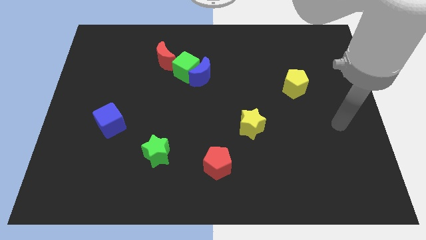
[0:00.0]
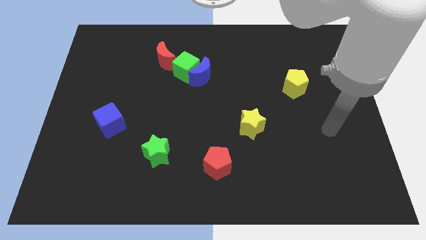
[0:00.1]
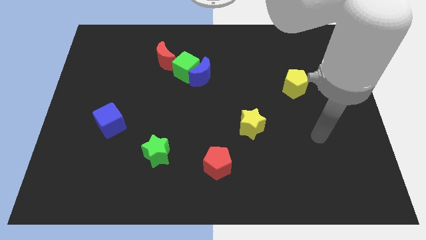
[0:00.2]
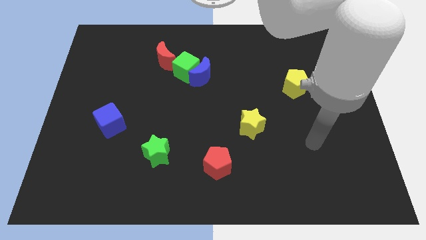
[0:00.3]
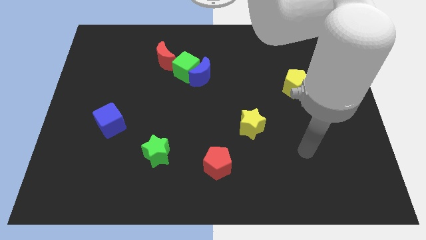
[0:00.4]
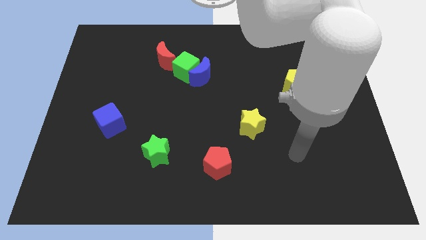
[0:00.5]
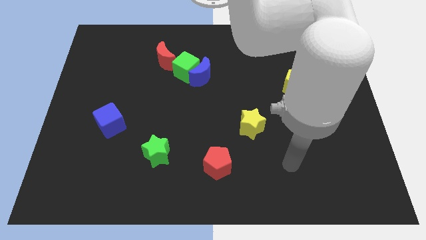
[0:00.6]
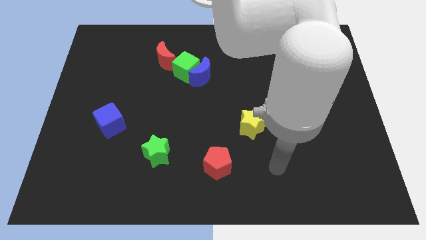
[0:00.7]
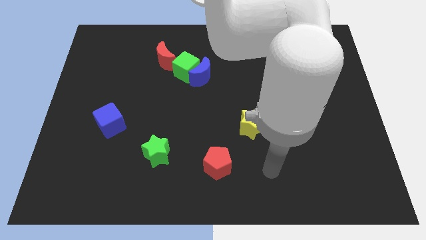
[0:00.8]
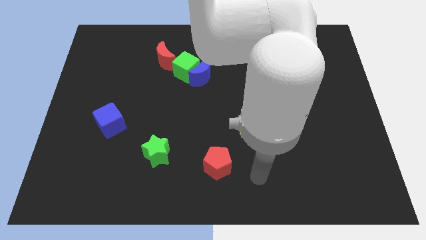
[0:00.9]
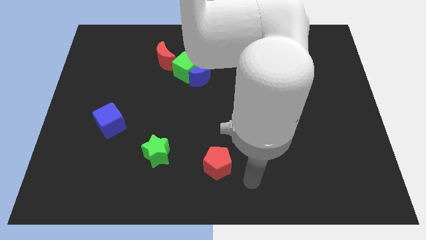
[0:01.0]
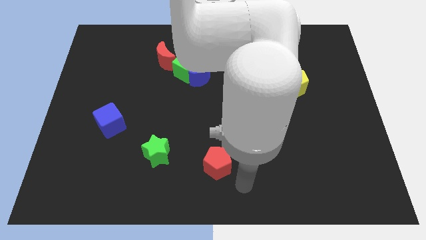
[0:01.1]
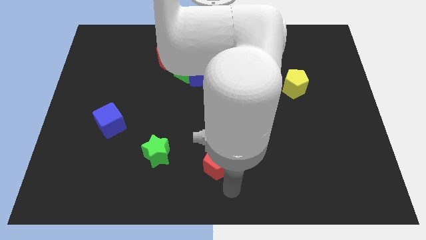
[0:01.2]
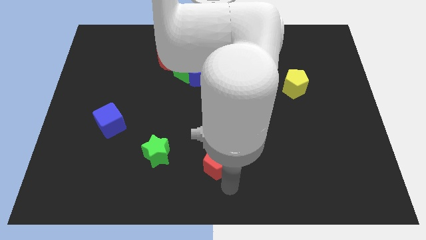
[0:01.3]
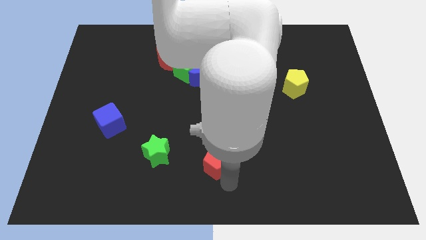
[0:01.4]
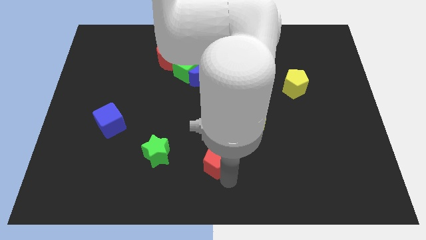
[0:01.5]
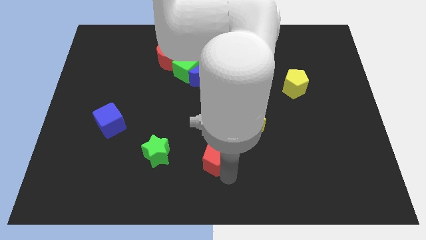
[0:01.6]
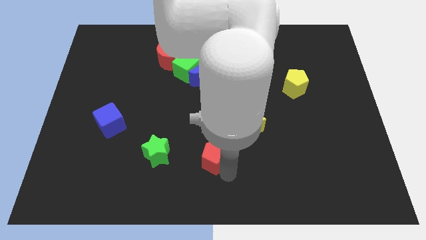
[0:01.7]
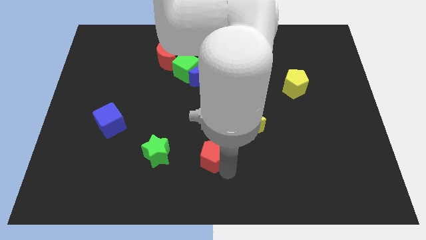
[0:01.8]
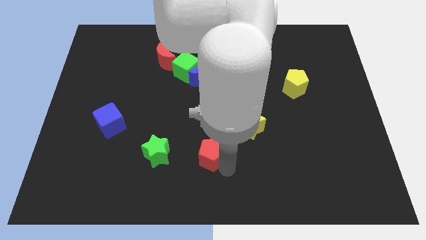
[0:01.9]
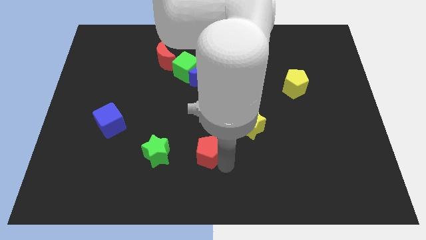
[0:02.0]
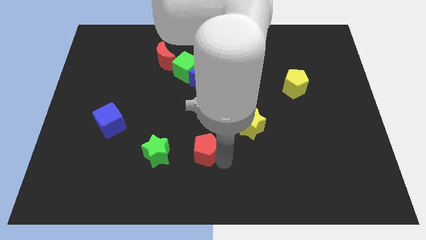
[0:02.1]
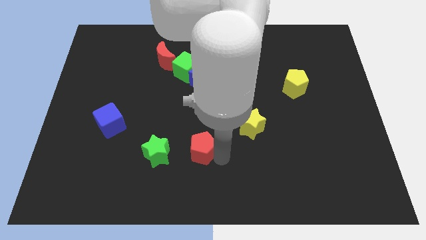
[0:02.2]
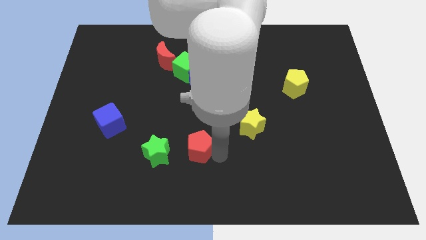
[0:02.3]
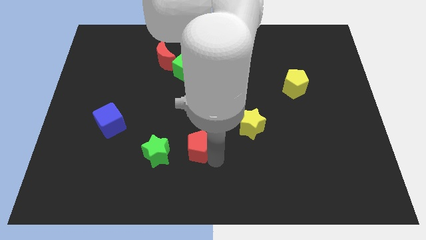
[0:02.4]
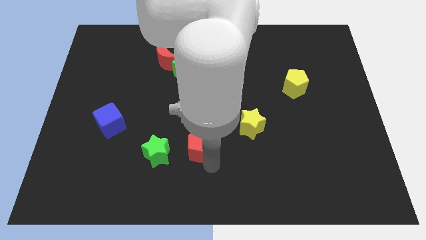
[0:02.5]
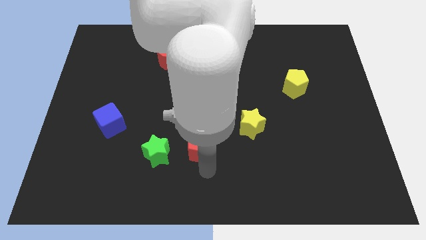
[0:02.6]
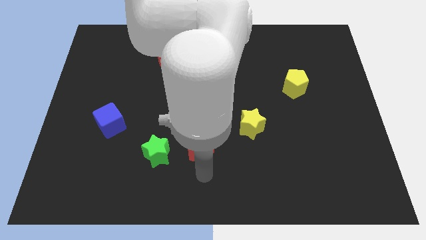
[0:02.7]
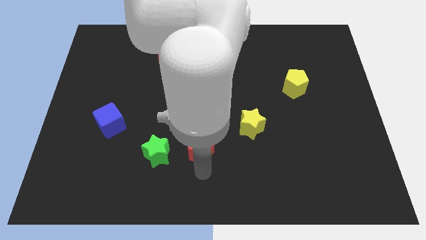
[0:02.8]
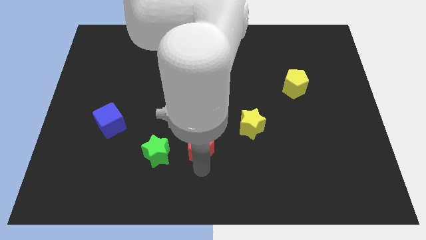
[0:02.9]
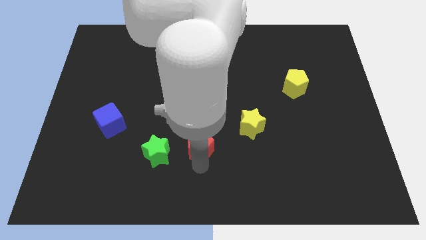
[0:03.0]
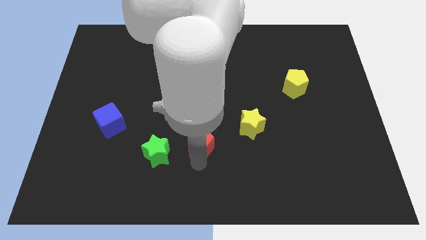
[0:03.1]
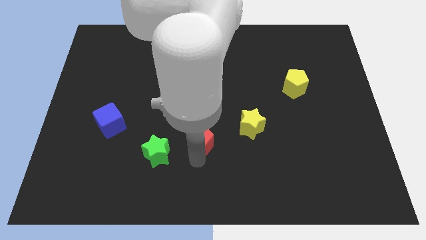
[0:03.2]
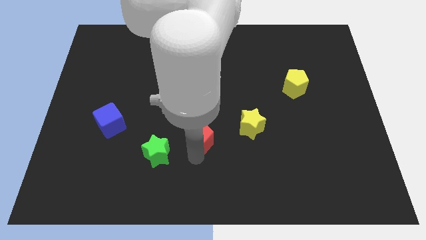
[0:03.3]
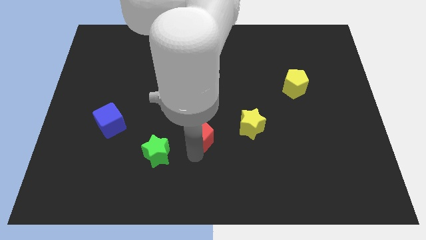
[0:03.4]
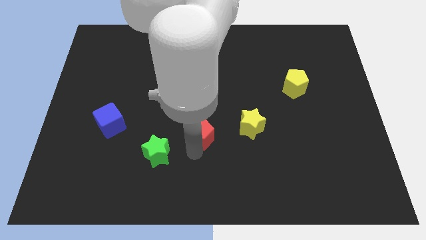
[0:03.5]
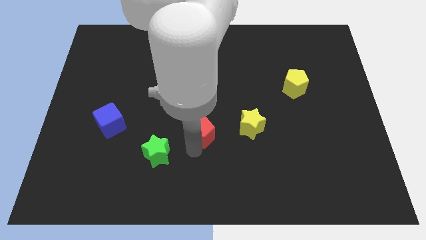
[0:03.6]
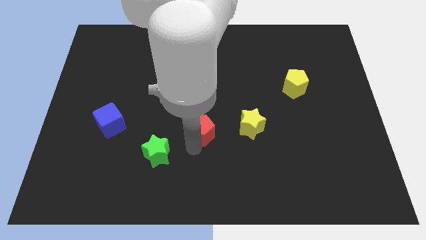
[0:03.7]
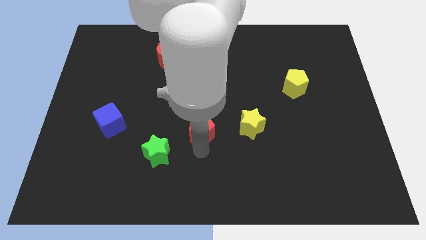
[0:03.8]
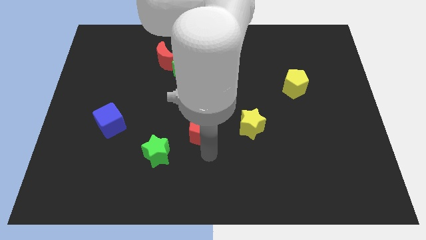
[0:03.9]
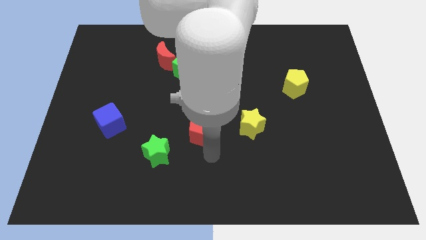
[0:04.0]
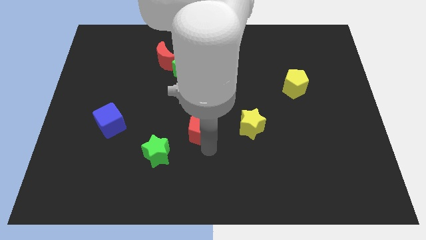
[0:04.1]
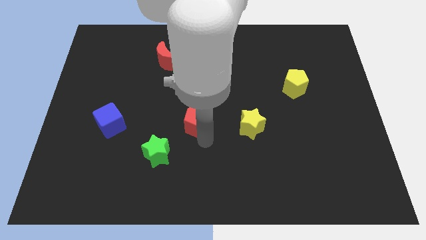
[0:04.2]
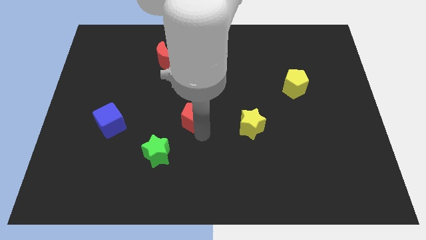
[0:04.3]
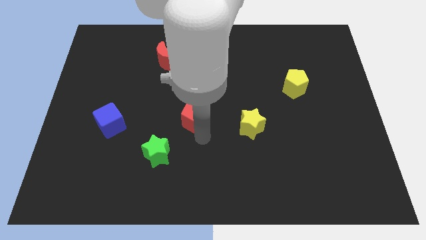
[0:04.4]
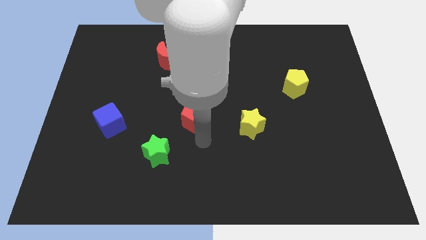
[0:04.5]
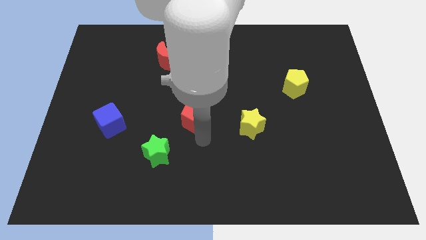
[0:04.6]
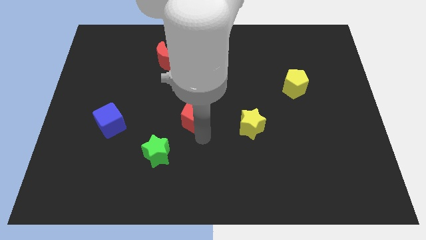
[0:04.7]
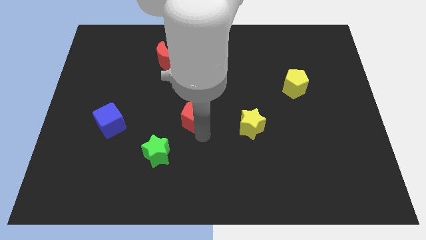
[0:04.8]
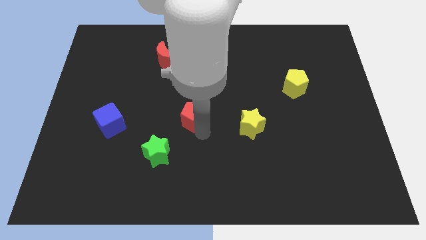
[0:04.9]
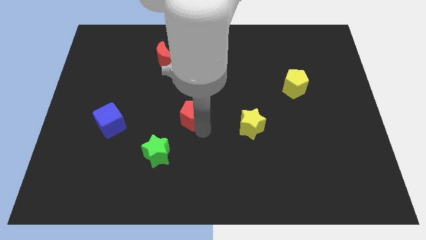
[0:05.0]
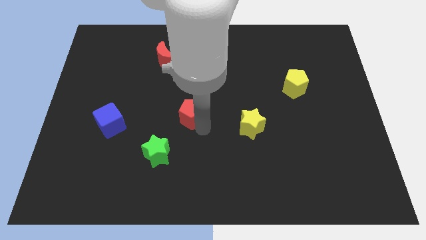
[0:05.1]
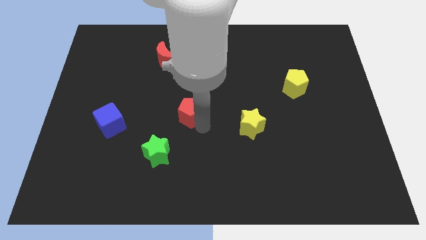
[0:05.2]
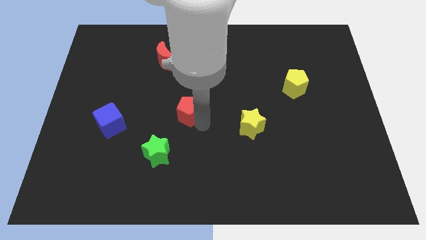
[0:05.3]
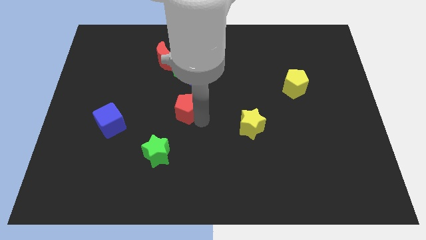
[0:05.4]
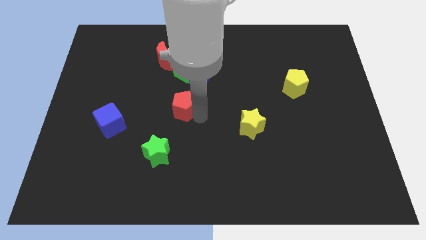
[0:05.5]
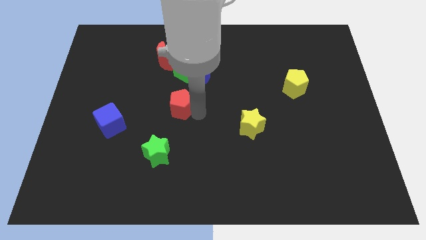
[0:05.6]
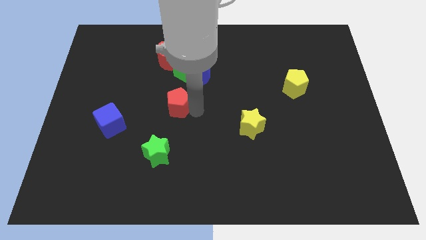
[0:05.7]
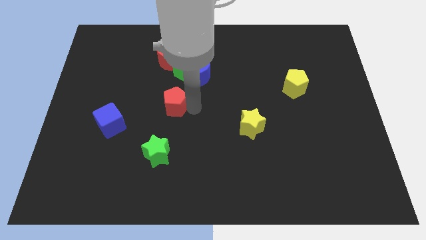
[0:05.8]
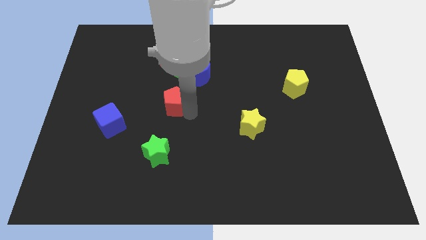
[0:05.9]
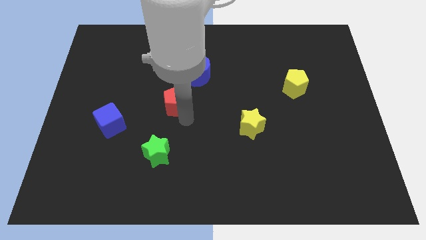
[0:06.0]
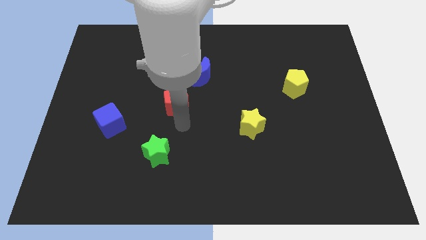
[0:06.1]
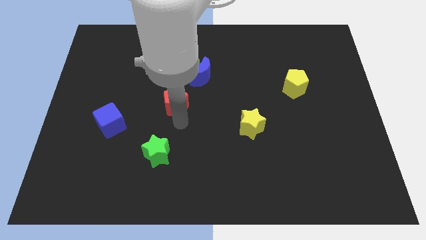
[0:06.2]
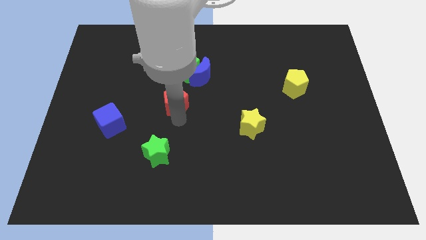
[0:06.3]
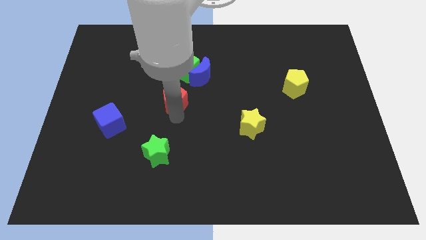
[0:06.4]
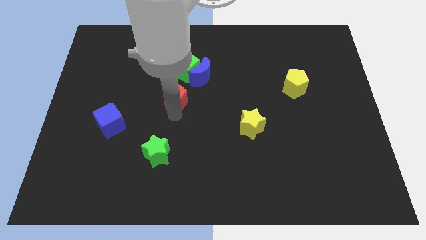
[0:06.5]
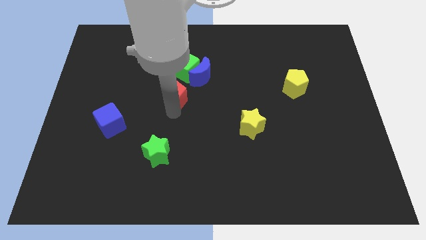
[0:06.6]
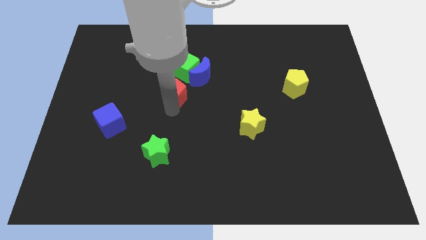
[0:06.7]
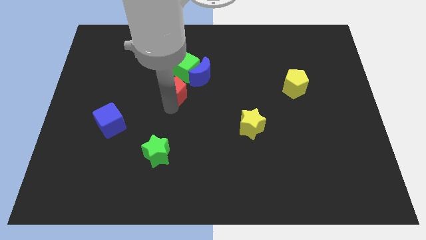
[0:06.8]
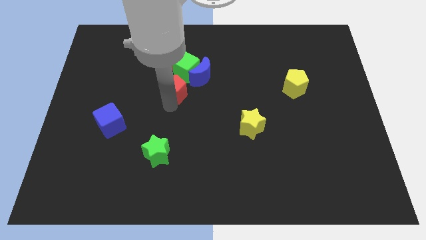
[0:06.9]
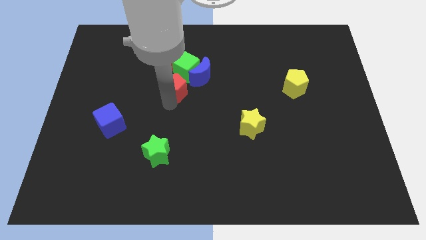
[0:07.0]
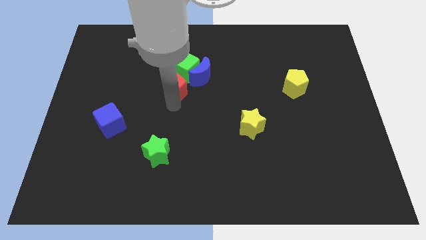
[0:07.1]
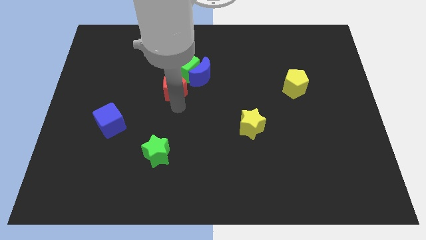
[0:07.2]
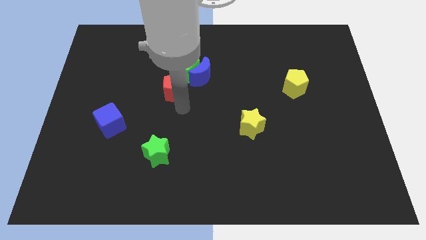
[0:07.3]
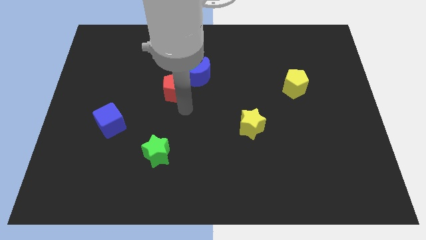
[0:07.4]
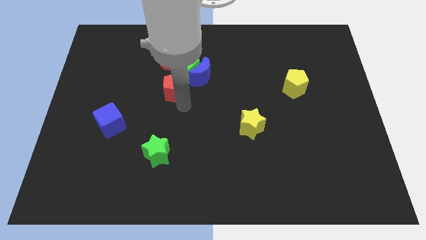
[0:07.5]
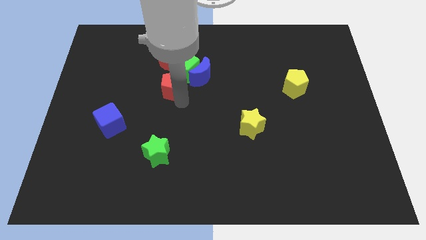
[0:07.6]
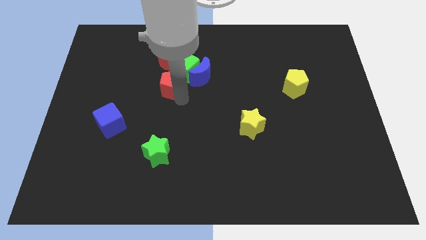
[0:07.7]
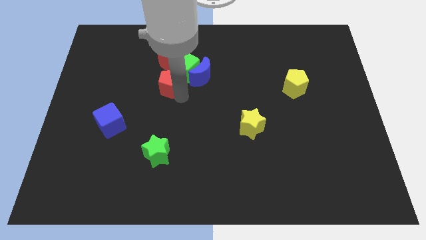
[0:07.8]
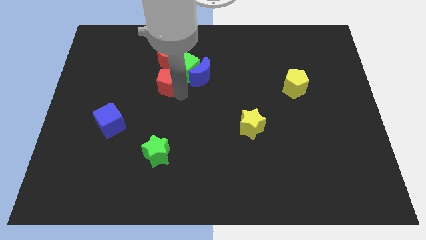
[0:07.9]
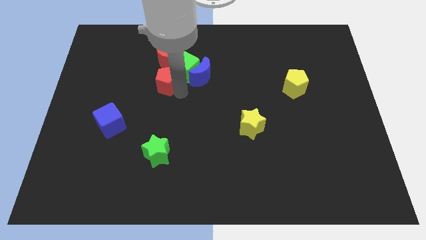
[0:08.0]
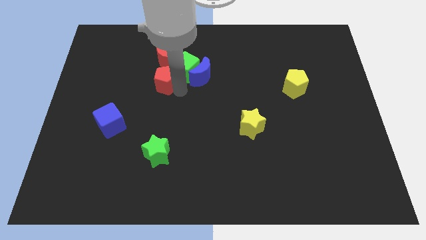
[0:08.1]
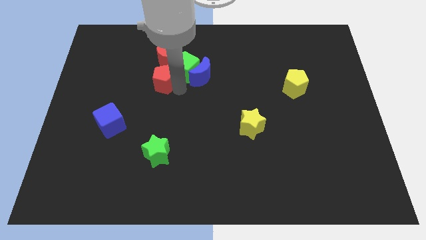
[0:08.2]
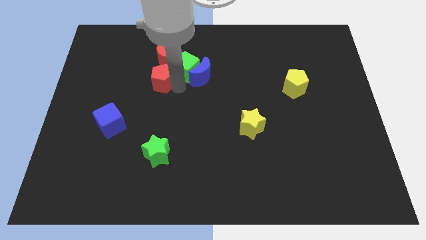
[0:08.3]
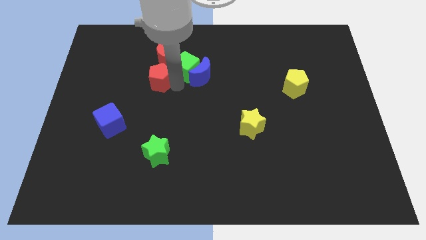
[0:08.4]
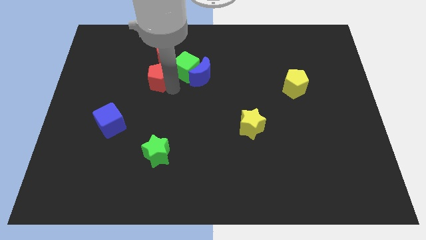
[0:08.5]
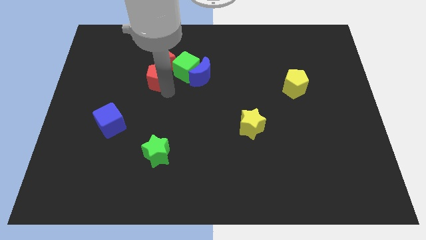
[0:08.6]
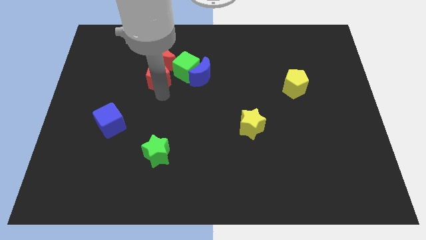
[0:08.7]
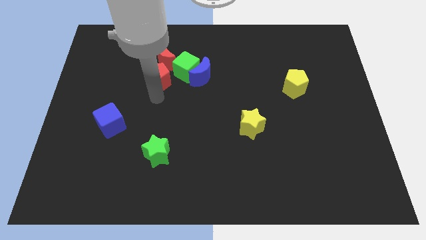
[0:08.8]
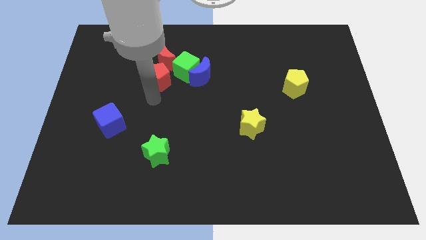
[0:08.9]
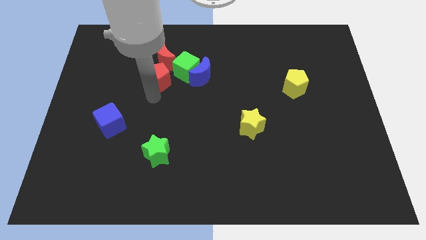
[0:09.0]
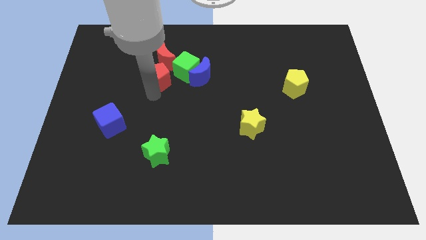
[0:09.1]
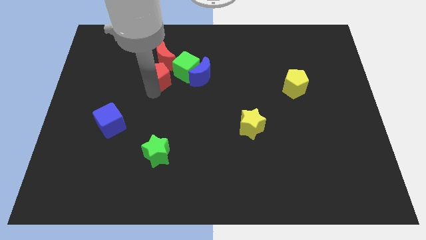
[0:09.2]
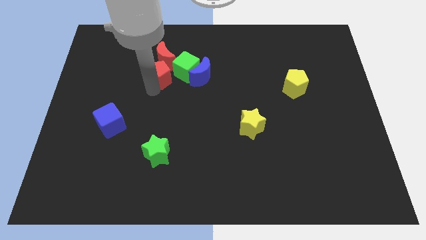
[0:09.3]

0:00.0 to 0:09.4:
push the red pentagon next to the red moon
